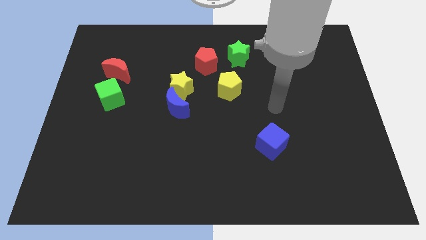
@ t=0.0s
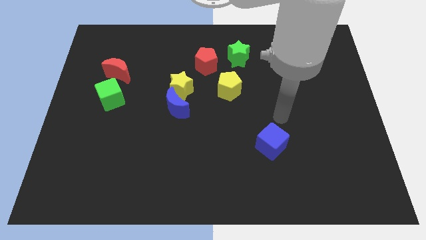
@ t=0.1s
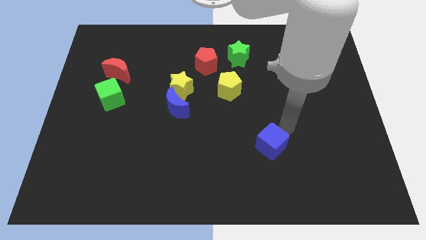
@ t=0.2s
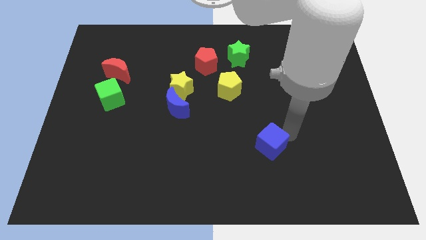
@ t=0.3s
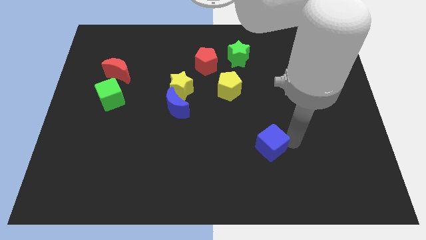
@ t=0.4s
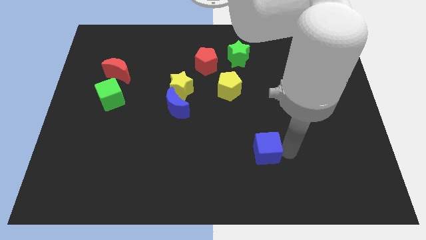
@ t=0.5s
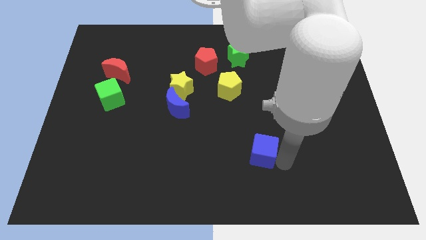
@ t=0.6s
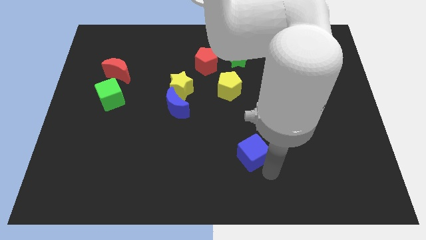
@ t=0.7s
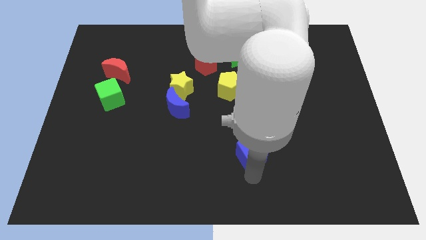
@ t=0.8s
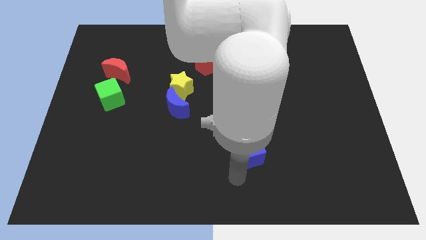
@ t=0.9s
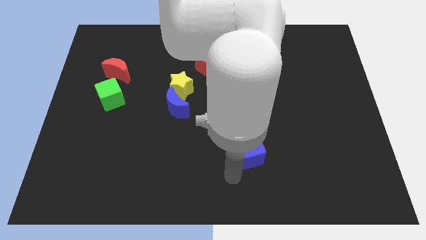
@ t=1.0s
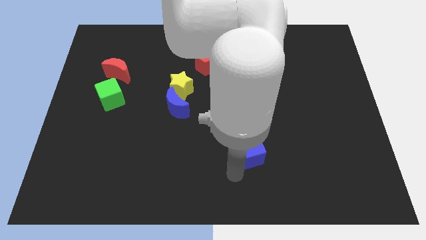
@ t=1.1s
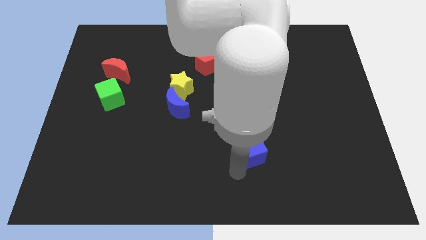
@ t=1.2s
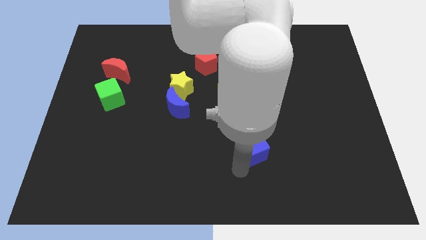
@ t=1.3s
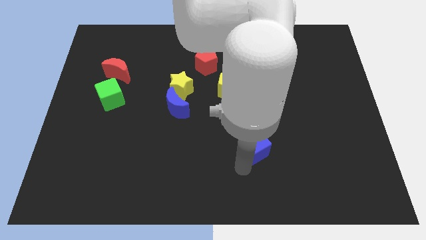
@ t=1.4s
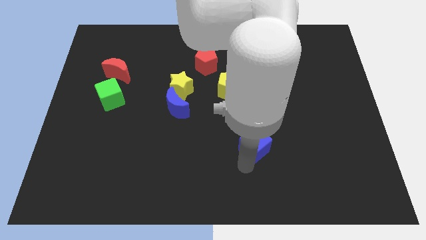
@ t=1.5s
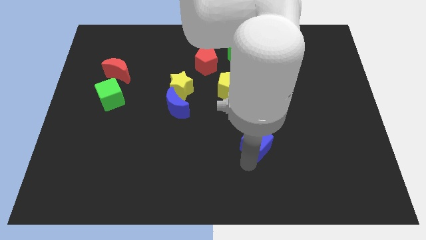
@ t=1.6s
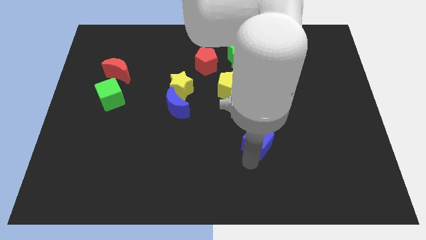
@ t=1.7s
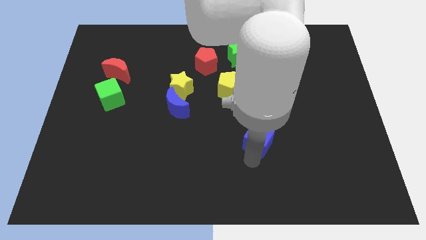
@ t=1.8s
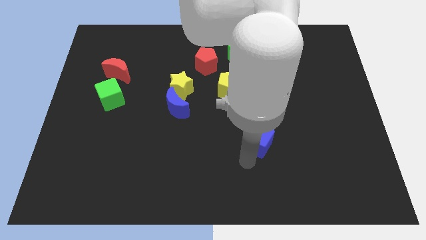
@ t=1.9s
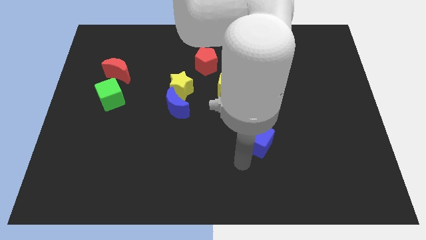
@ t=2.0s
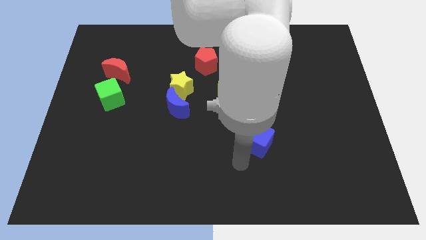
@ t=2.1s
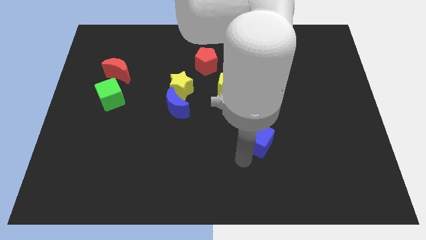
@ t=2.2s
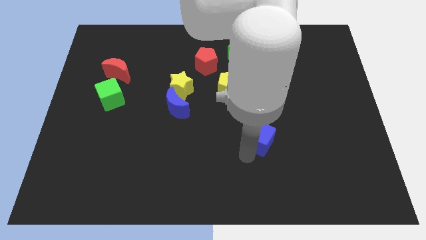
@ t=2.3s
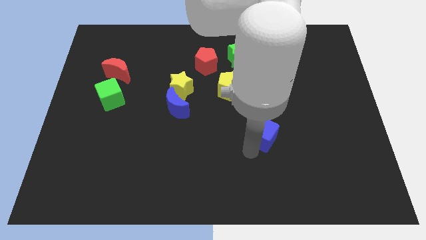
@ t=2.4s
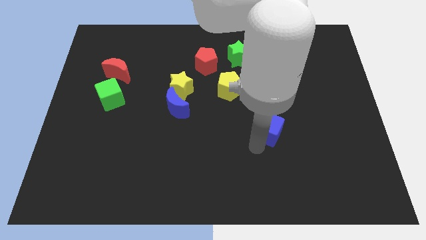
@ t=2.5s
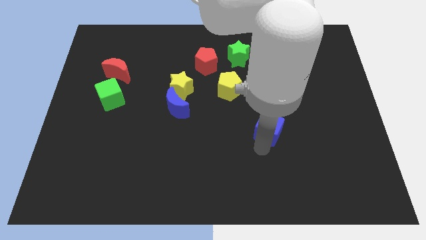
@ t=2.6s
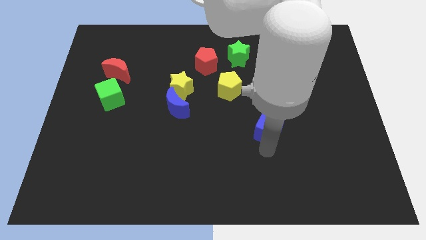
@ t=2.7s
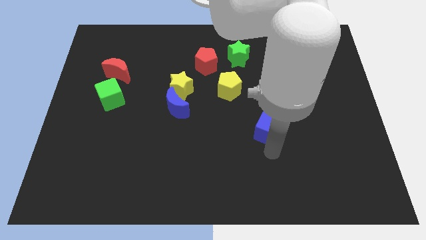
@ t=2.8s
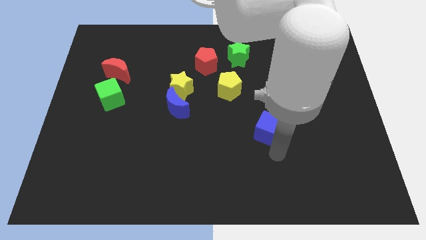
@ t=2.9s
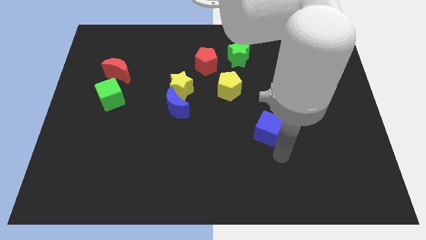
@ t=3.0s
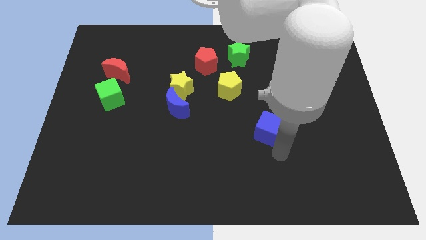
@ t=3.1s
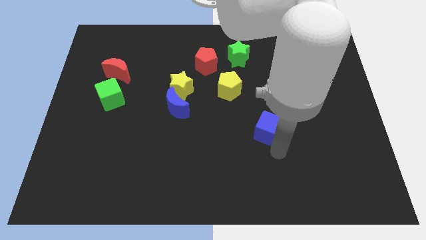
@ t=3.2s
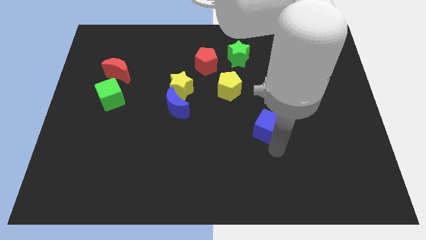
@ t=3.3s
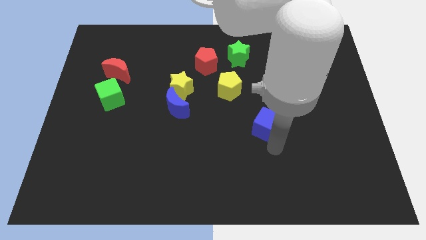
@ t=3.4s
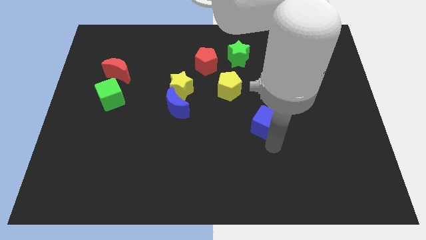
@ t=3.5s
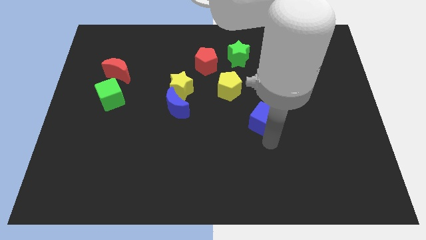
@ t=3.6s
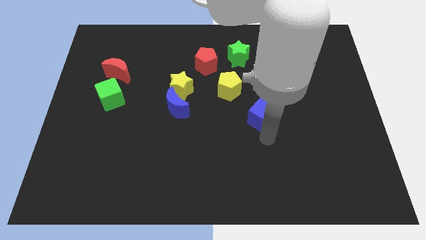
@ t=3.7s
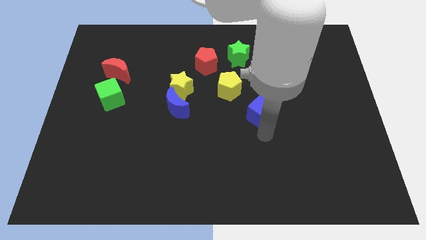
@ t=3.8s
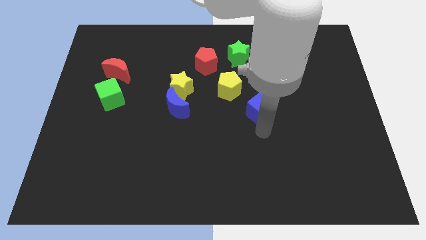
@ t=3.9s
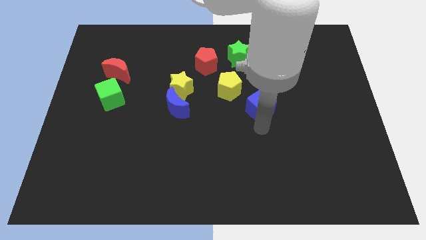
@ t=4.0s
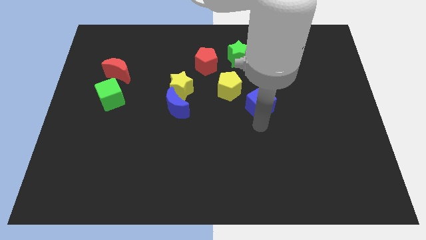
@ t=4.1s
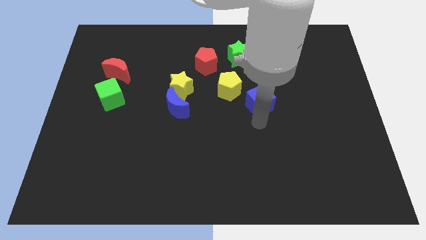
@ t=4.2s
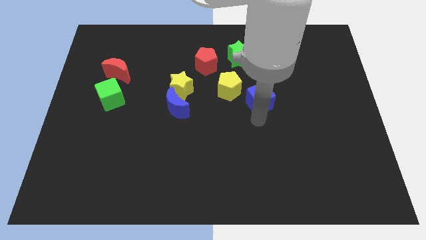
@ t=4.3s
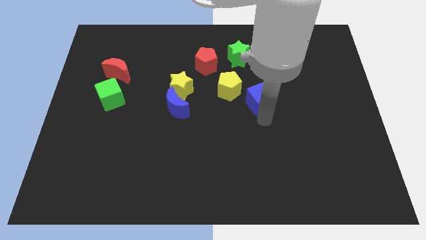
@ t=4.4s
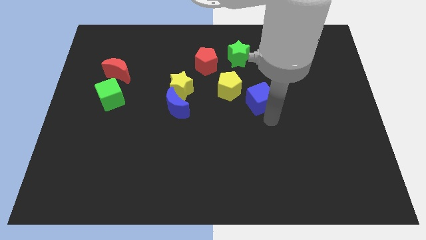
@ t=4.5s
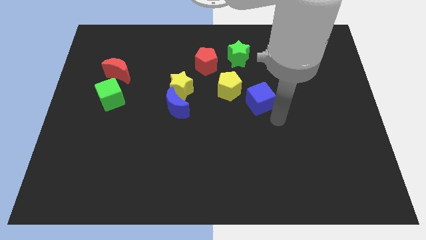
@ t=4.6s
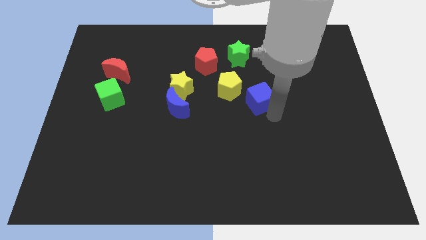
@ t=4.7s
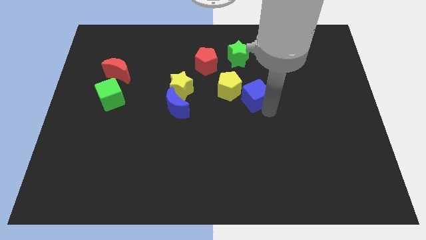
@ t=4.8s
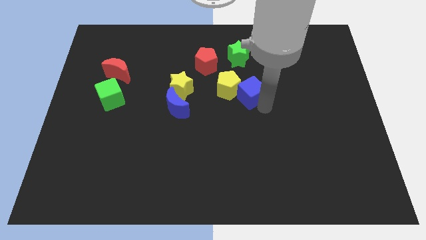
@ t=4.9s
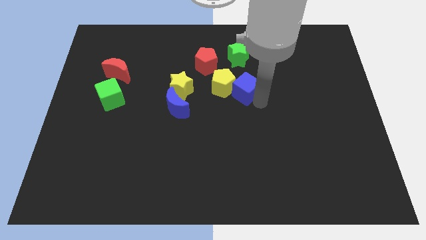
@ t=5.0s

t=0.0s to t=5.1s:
put the blue cube to the right of the yellow star

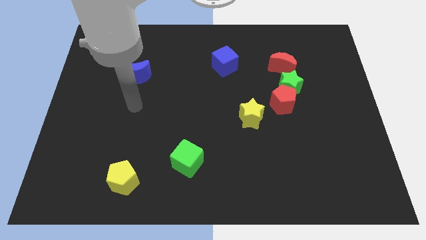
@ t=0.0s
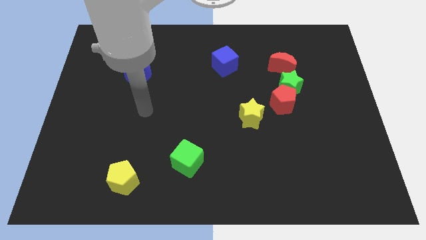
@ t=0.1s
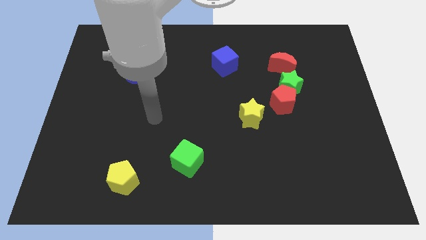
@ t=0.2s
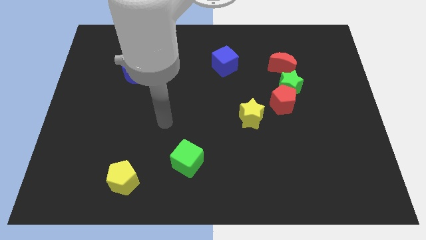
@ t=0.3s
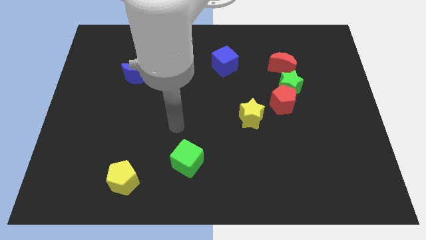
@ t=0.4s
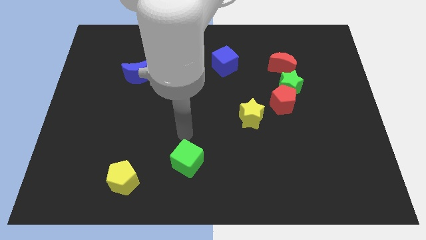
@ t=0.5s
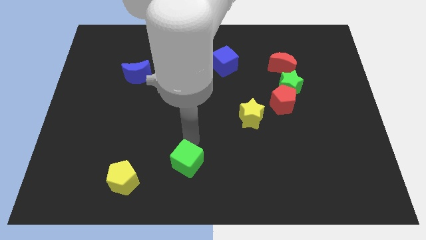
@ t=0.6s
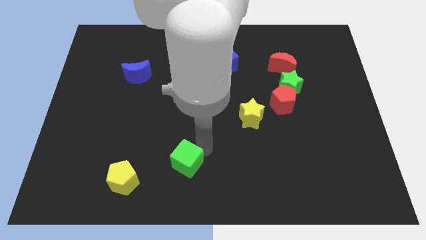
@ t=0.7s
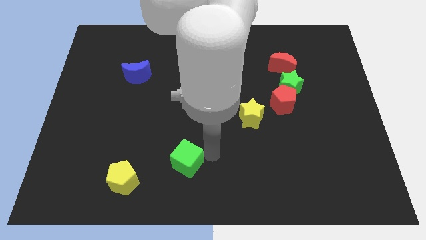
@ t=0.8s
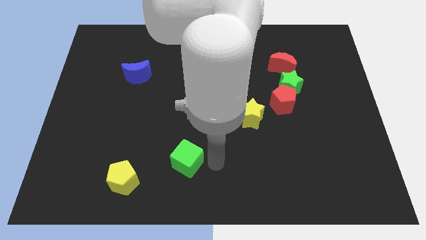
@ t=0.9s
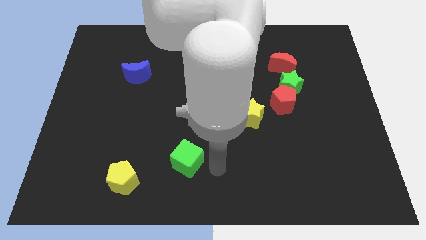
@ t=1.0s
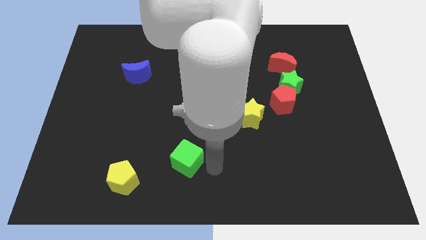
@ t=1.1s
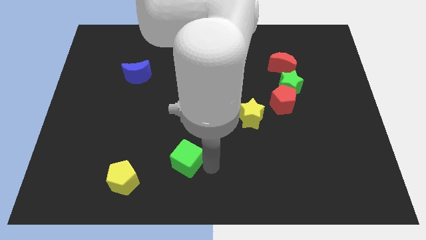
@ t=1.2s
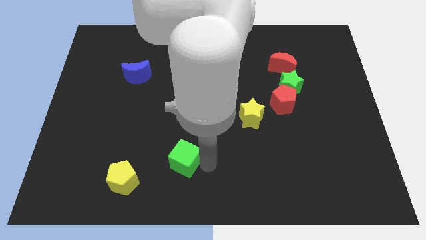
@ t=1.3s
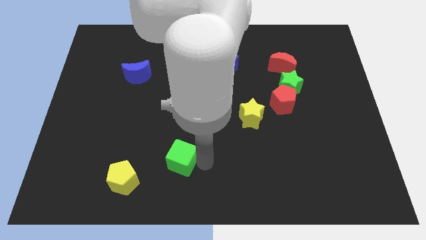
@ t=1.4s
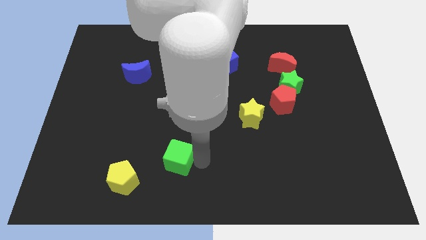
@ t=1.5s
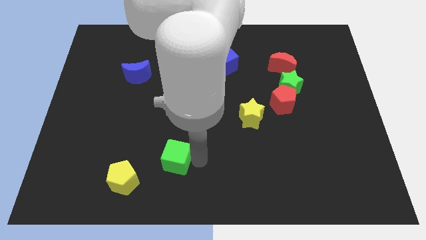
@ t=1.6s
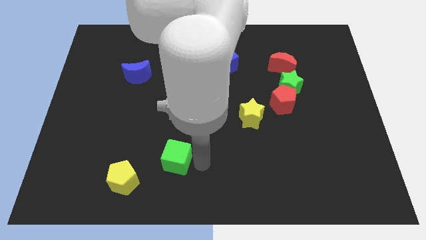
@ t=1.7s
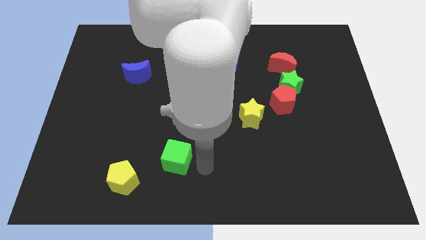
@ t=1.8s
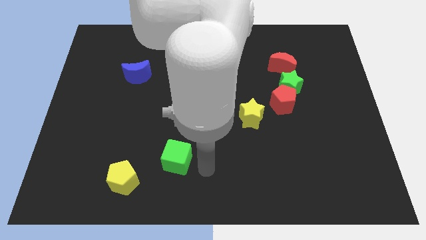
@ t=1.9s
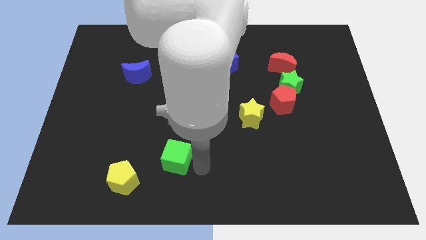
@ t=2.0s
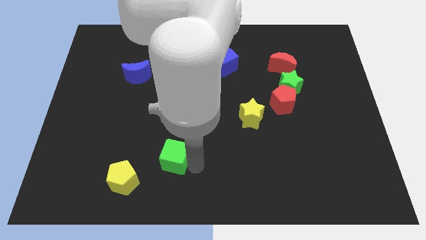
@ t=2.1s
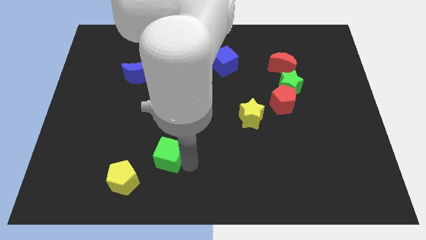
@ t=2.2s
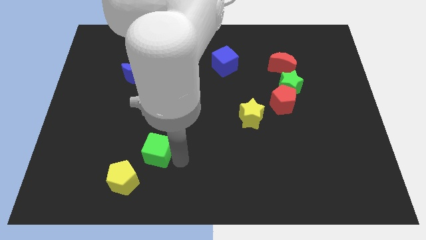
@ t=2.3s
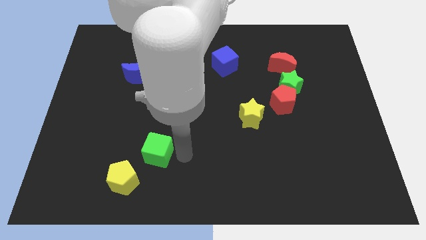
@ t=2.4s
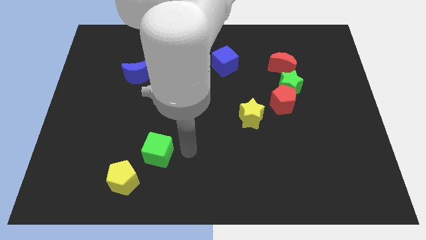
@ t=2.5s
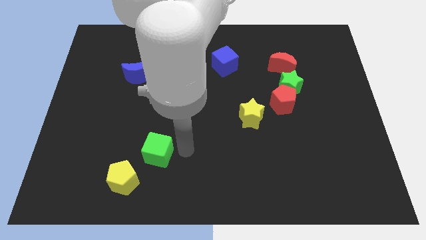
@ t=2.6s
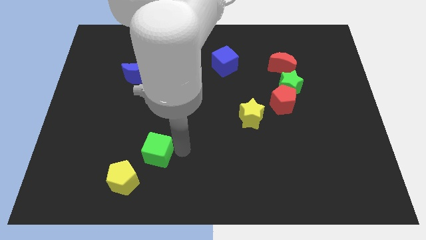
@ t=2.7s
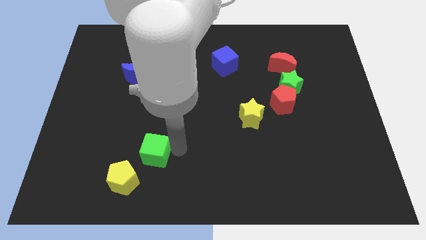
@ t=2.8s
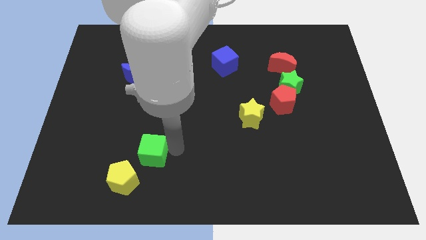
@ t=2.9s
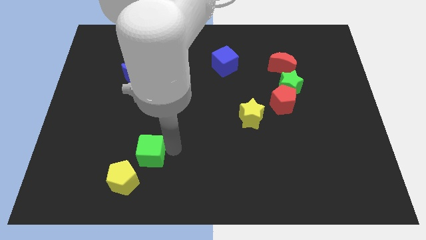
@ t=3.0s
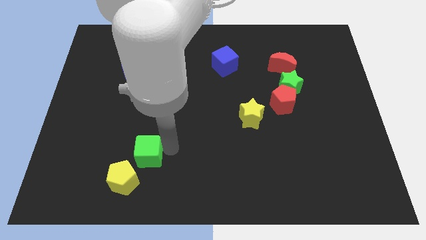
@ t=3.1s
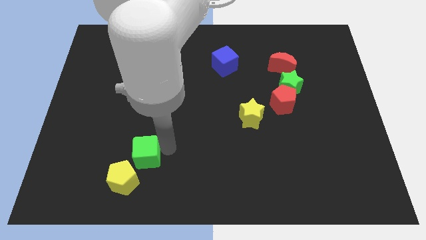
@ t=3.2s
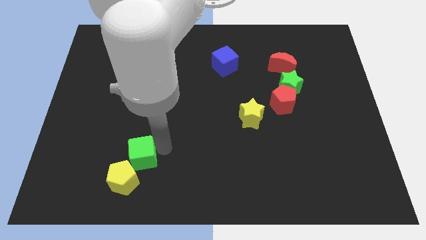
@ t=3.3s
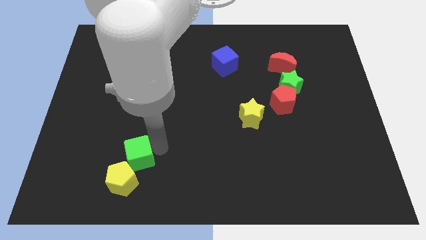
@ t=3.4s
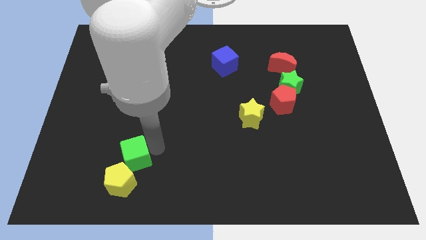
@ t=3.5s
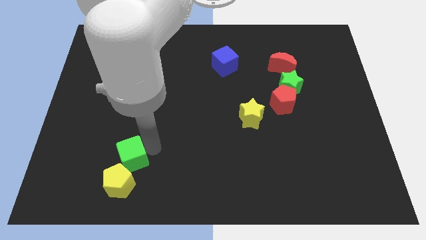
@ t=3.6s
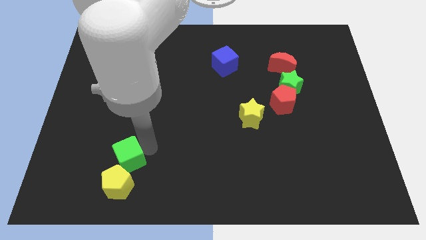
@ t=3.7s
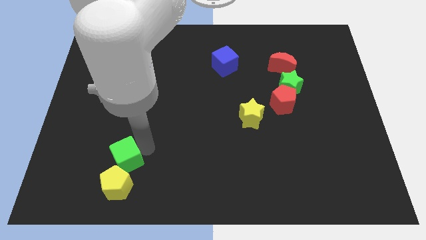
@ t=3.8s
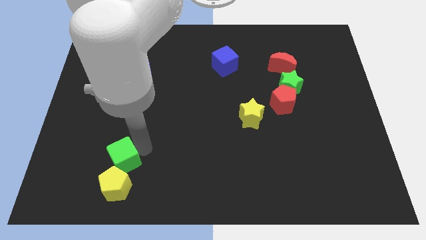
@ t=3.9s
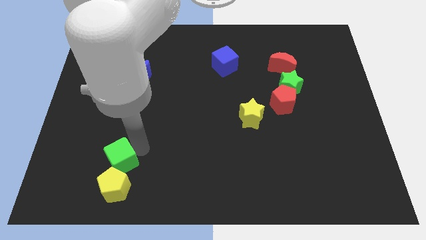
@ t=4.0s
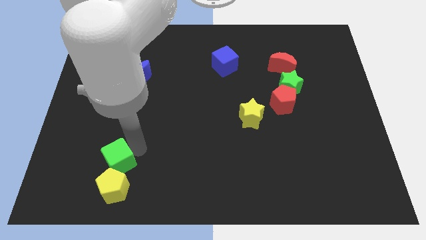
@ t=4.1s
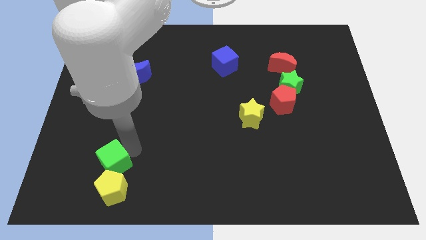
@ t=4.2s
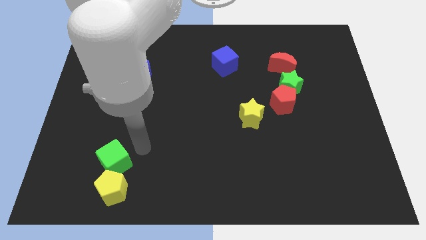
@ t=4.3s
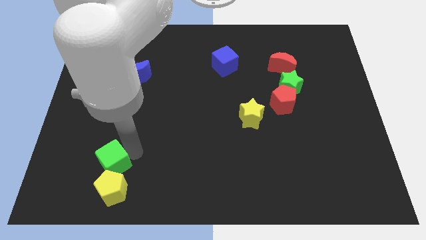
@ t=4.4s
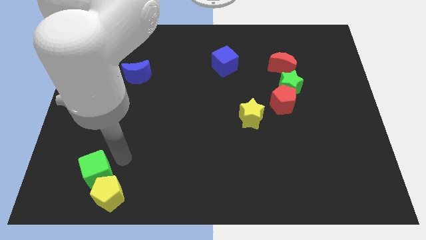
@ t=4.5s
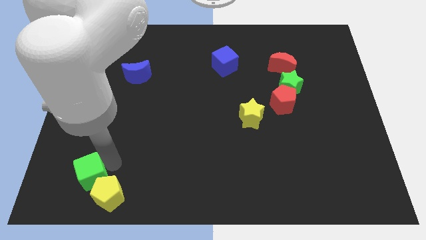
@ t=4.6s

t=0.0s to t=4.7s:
put the green cube to the left side of the yellow pentagon
